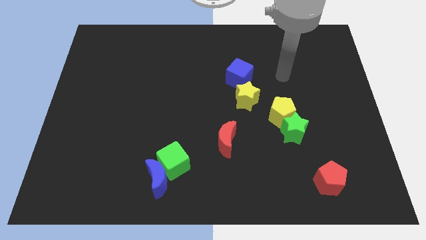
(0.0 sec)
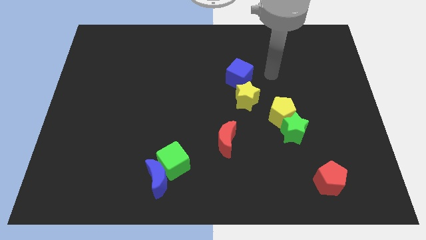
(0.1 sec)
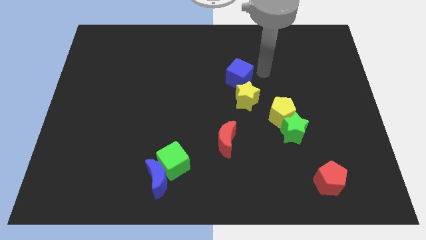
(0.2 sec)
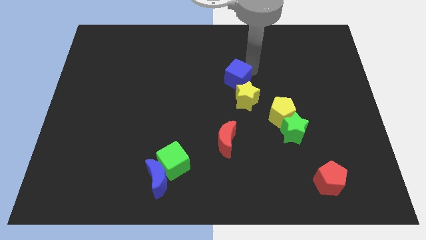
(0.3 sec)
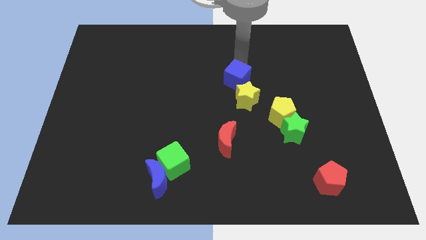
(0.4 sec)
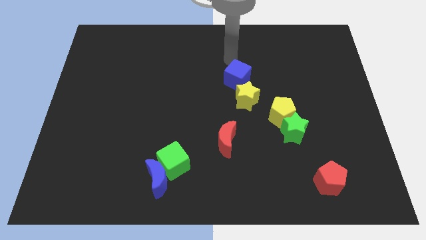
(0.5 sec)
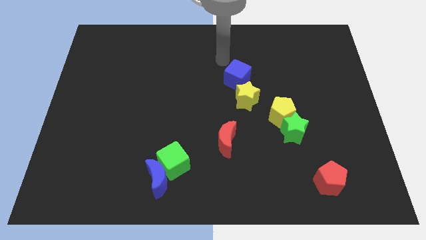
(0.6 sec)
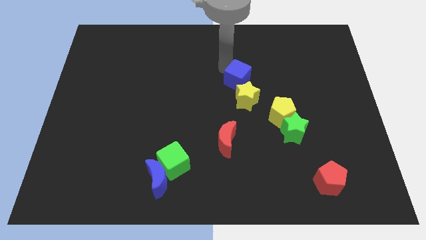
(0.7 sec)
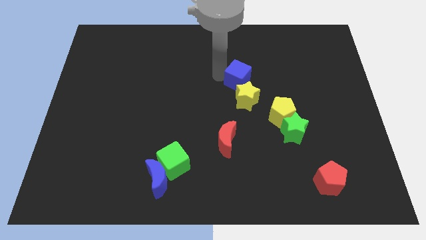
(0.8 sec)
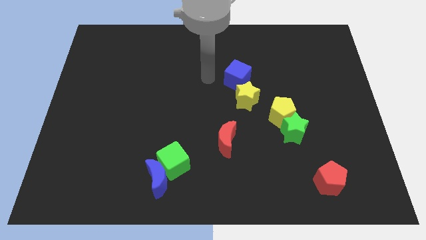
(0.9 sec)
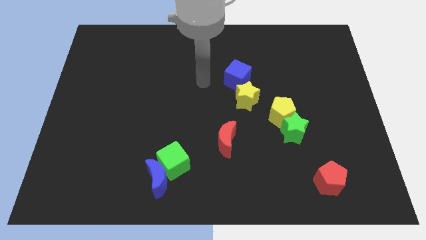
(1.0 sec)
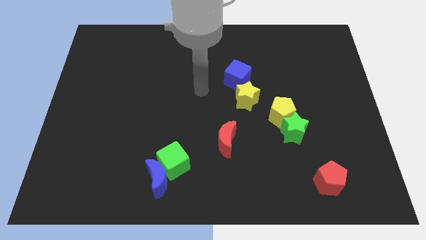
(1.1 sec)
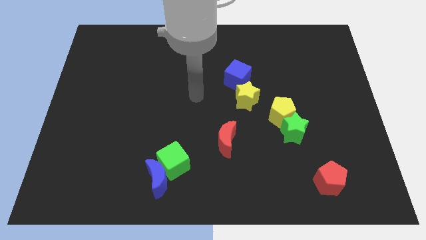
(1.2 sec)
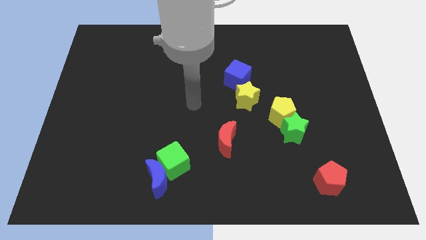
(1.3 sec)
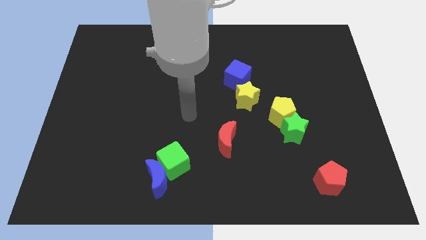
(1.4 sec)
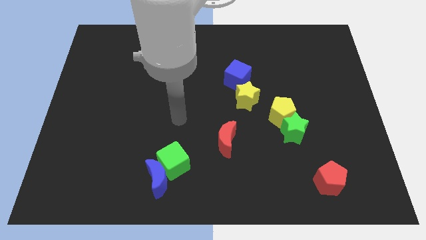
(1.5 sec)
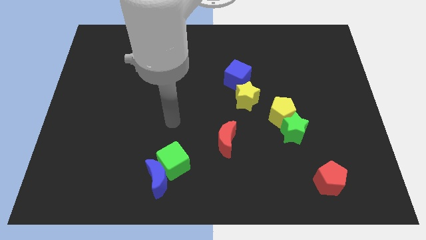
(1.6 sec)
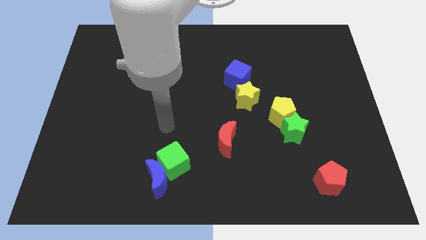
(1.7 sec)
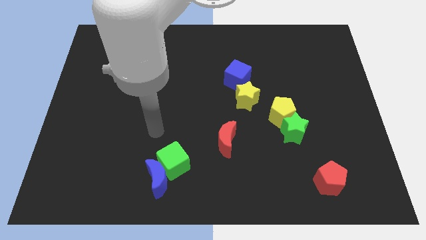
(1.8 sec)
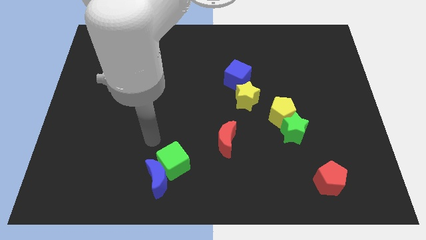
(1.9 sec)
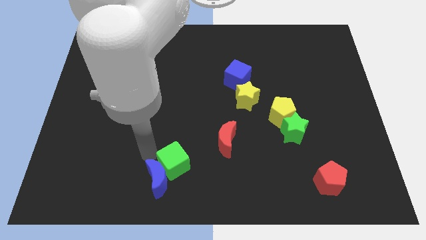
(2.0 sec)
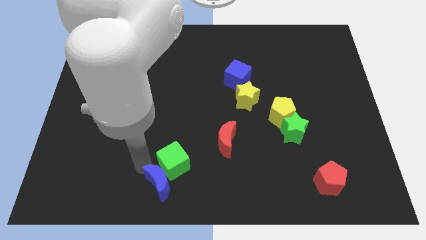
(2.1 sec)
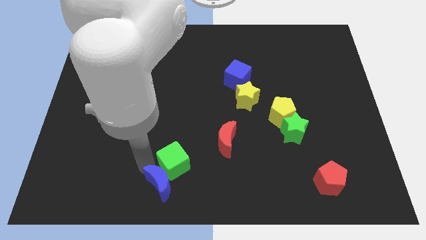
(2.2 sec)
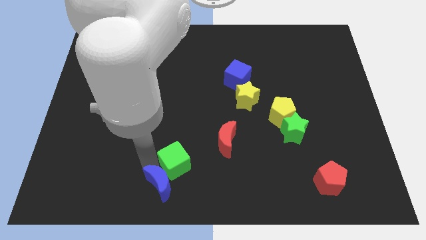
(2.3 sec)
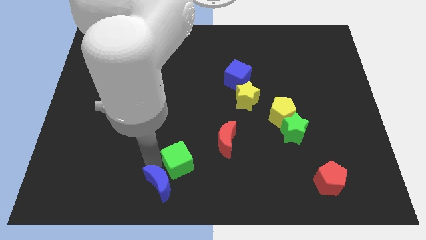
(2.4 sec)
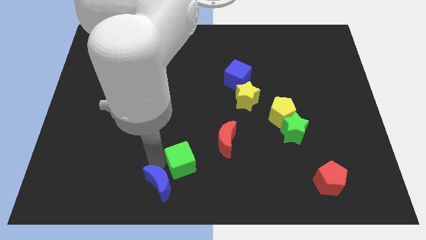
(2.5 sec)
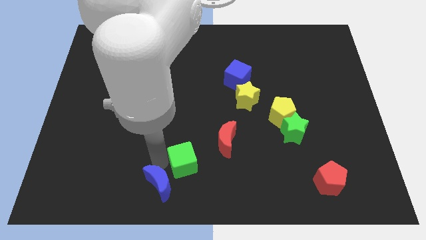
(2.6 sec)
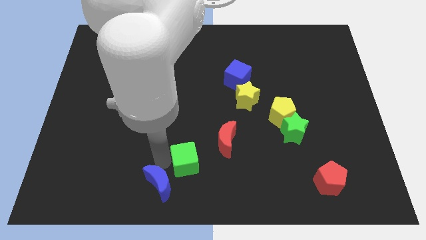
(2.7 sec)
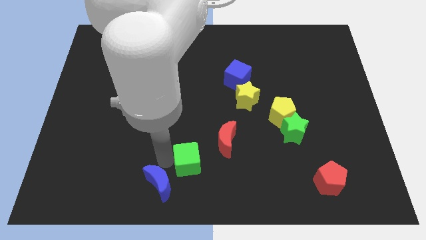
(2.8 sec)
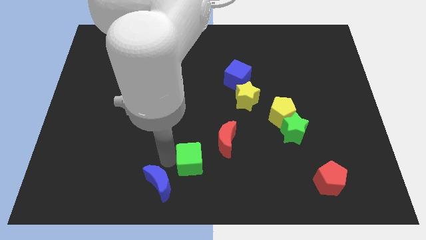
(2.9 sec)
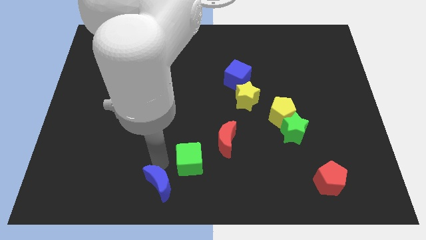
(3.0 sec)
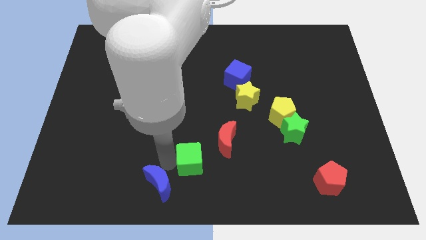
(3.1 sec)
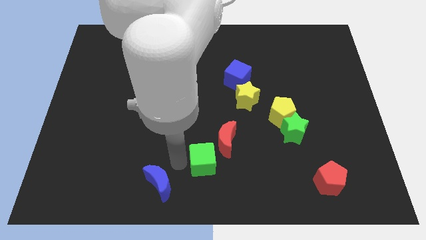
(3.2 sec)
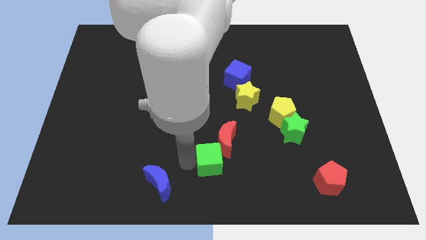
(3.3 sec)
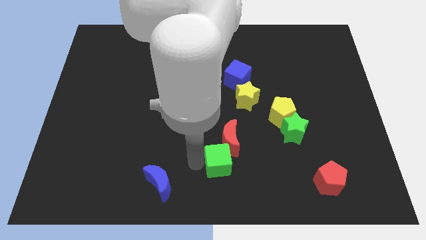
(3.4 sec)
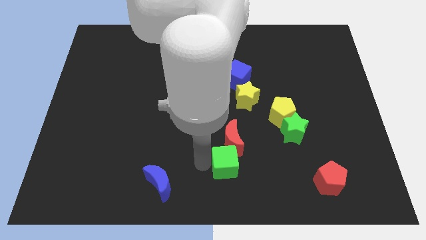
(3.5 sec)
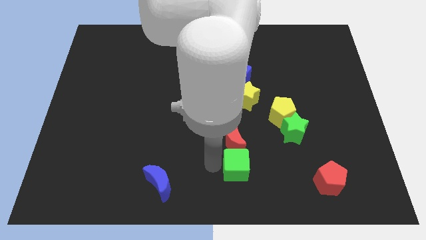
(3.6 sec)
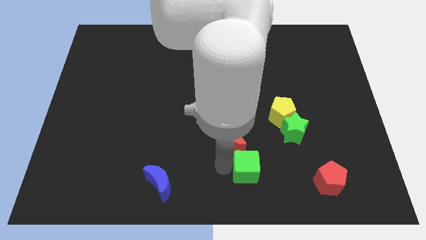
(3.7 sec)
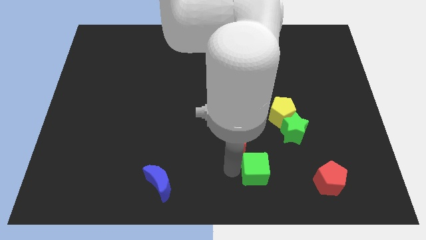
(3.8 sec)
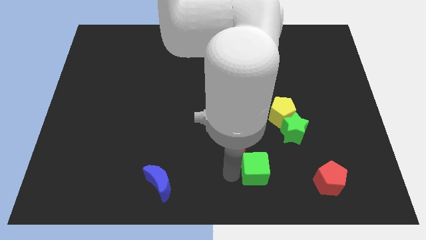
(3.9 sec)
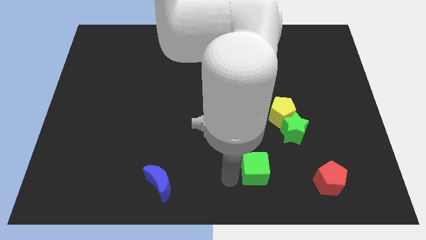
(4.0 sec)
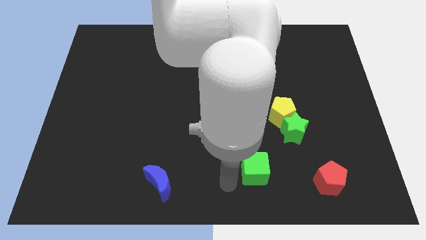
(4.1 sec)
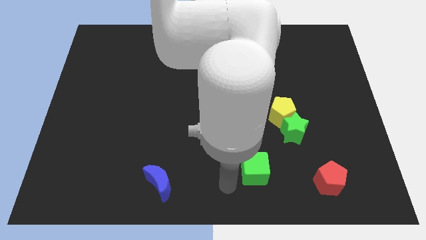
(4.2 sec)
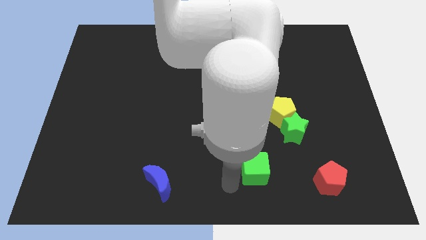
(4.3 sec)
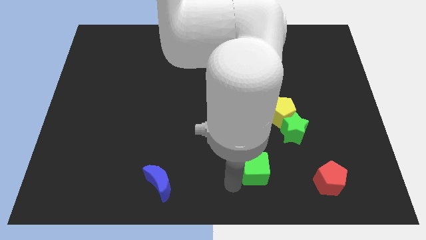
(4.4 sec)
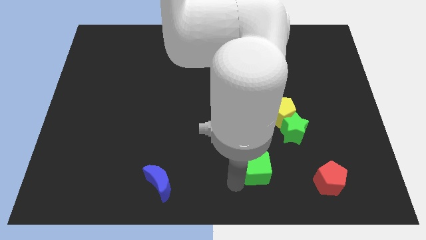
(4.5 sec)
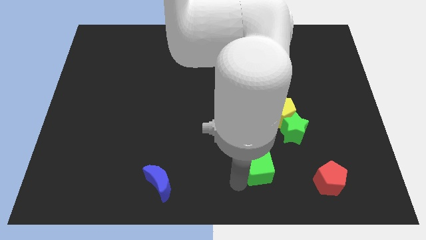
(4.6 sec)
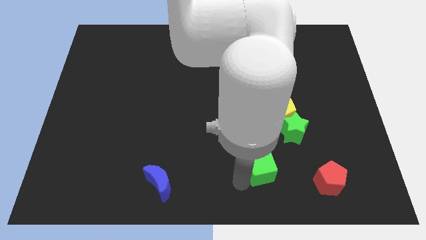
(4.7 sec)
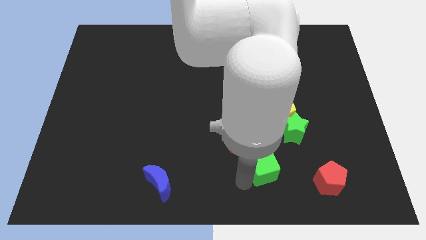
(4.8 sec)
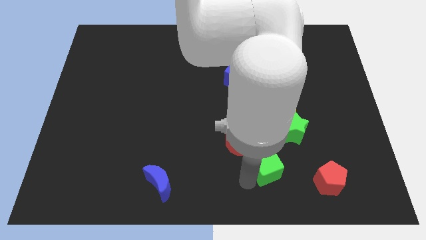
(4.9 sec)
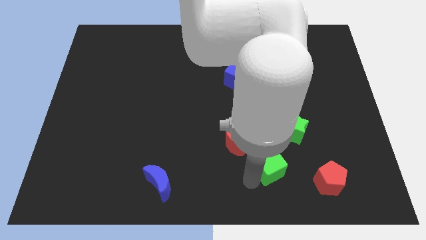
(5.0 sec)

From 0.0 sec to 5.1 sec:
slide the green cube right

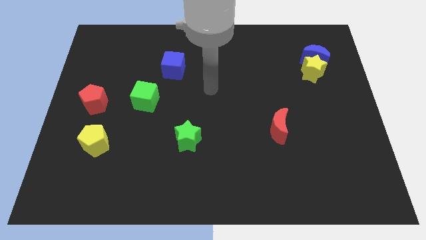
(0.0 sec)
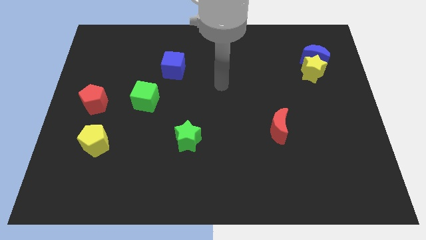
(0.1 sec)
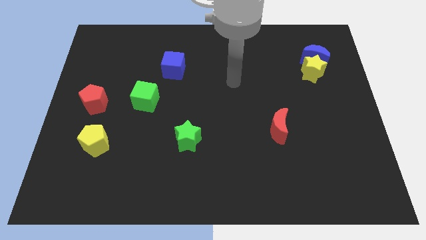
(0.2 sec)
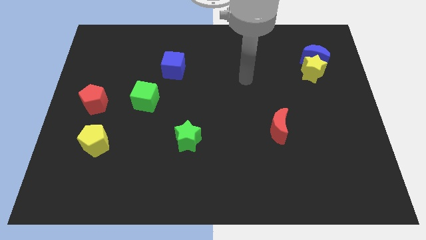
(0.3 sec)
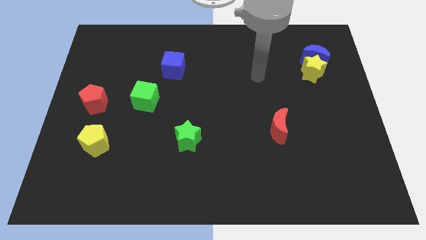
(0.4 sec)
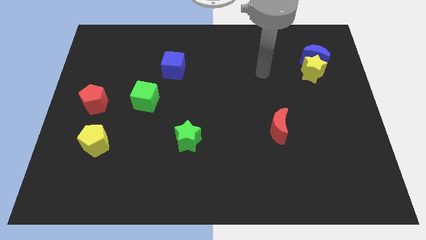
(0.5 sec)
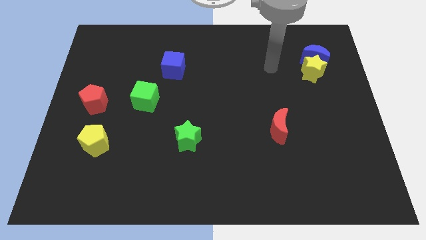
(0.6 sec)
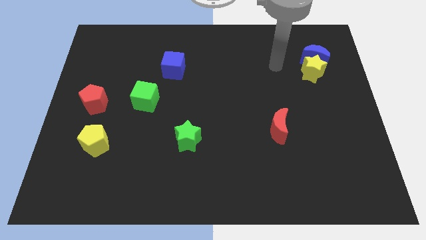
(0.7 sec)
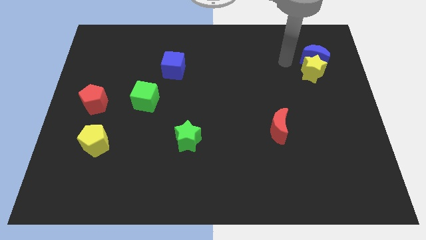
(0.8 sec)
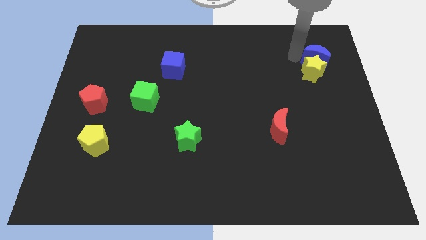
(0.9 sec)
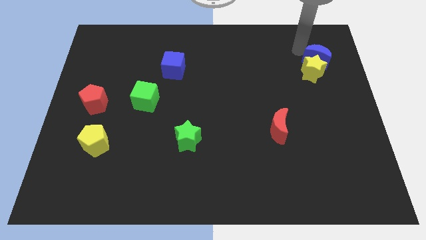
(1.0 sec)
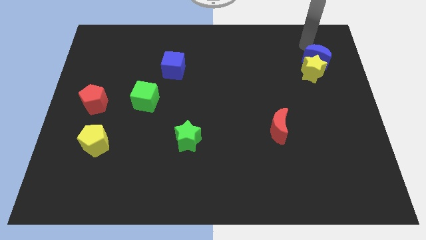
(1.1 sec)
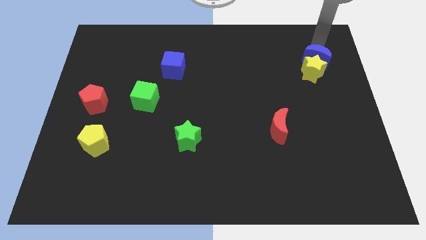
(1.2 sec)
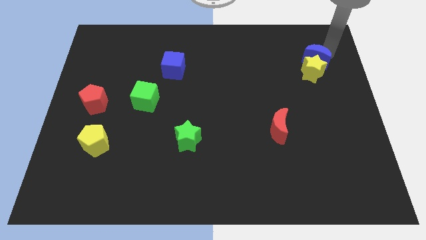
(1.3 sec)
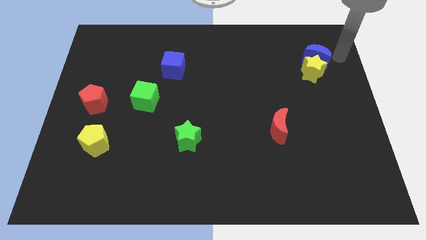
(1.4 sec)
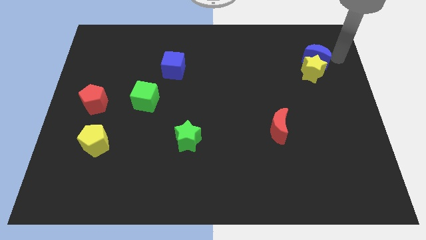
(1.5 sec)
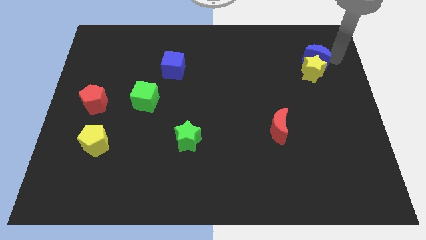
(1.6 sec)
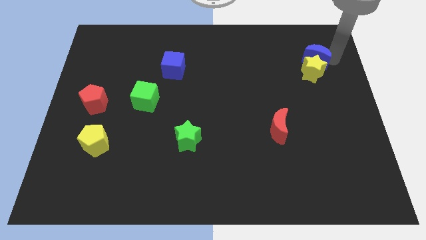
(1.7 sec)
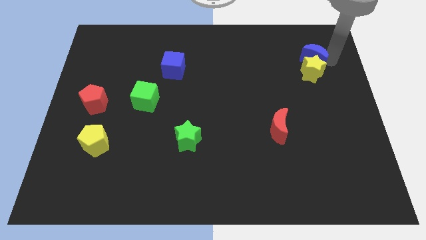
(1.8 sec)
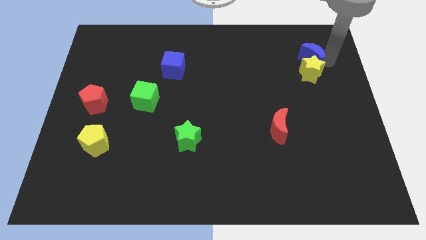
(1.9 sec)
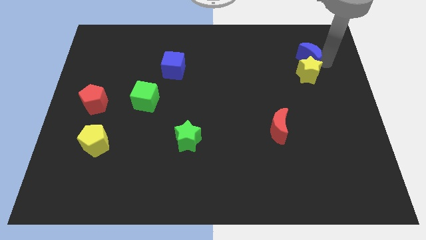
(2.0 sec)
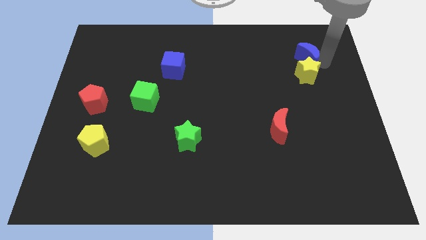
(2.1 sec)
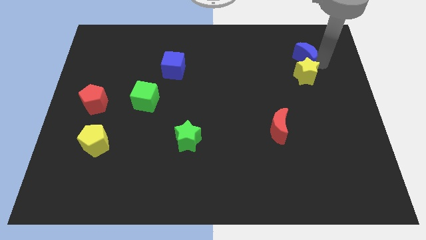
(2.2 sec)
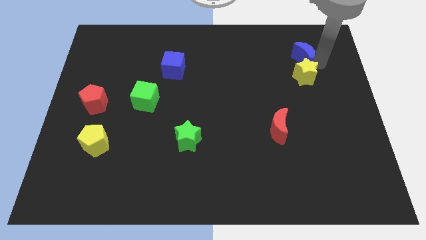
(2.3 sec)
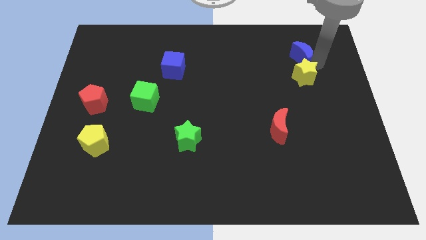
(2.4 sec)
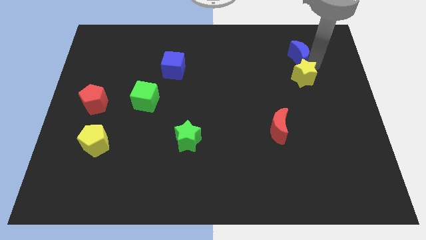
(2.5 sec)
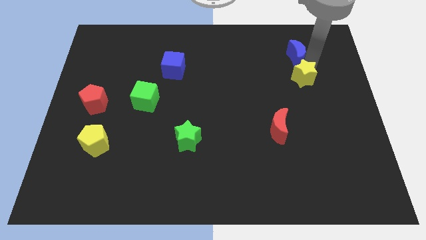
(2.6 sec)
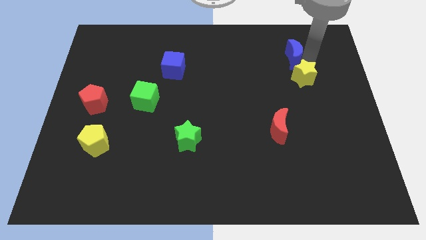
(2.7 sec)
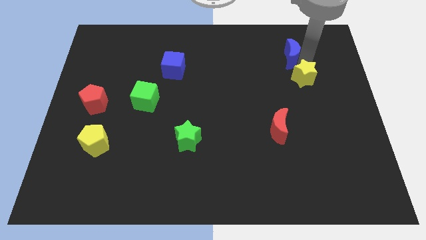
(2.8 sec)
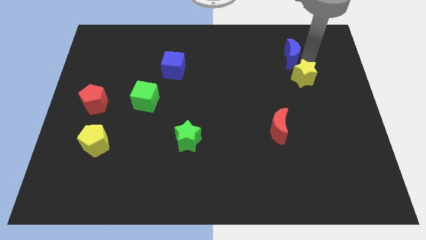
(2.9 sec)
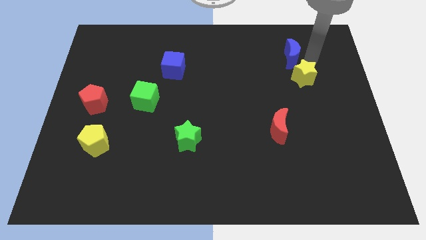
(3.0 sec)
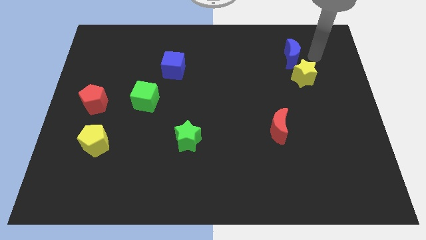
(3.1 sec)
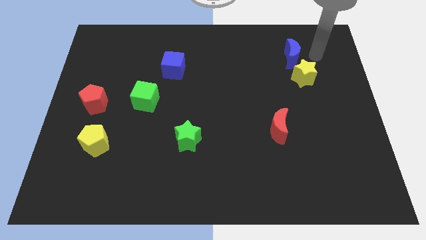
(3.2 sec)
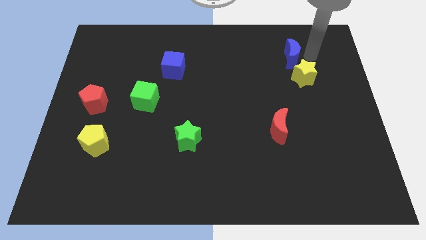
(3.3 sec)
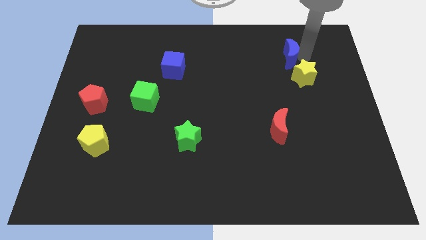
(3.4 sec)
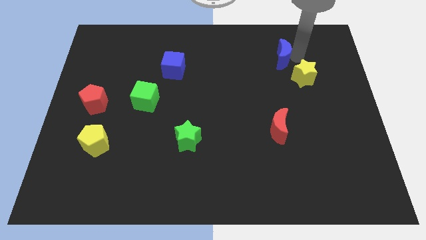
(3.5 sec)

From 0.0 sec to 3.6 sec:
slightly push the blue moon to the left
